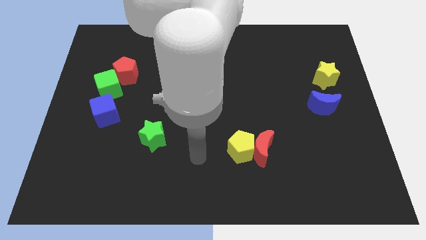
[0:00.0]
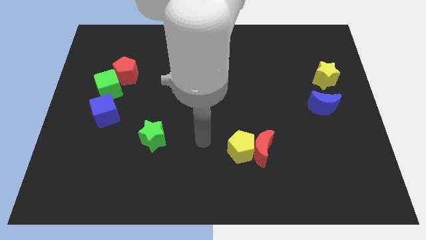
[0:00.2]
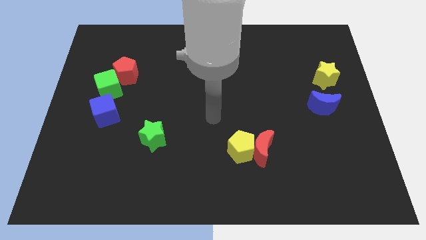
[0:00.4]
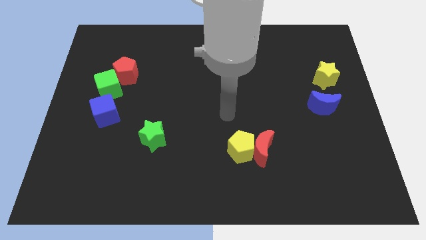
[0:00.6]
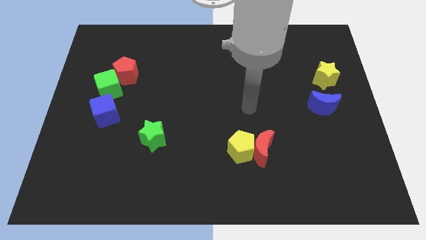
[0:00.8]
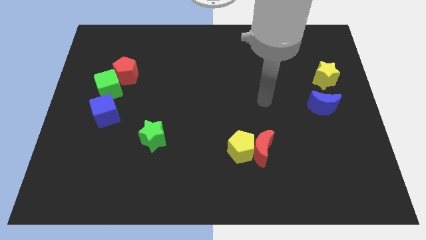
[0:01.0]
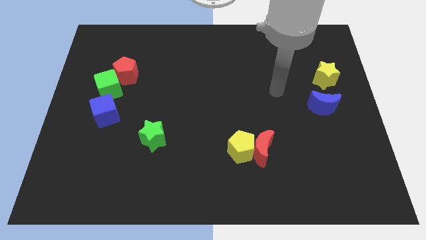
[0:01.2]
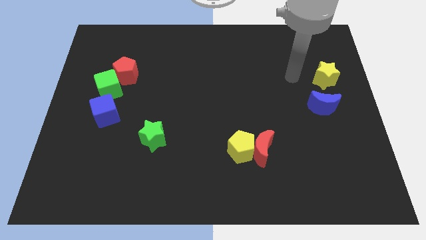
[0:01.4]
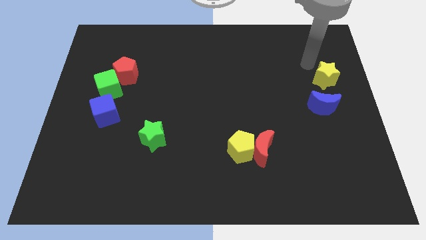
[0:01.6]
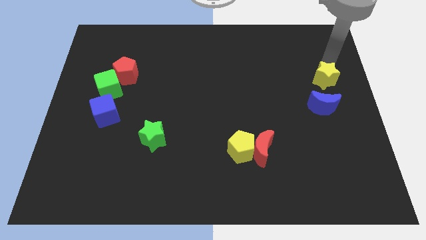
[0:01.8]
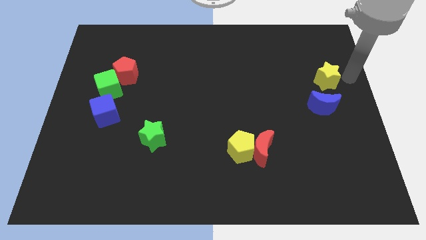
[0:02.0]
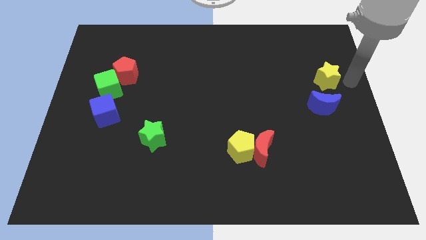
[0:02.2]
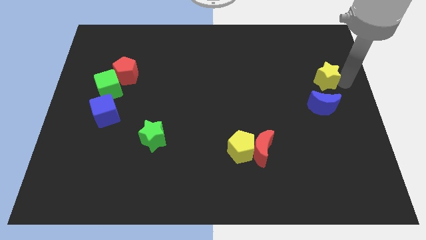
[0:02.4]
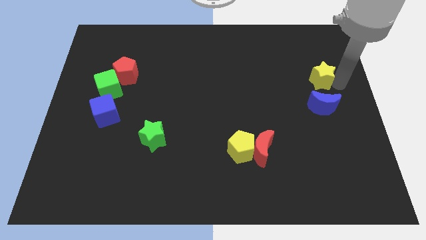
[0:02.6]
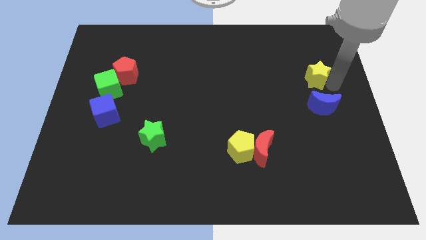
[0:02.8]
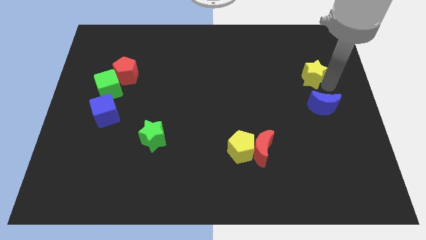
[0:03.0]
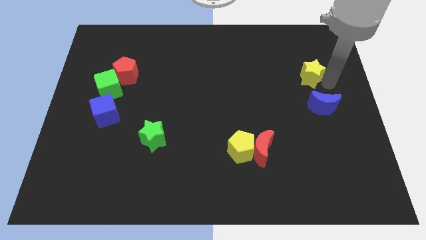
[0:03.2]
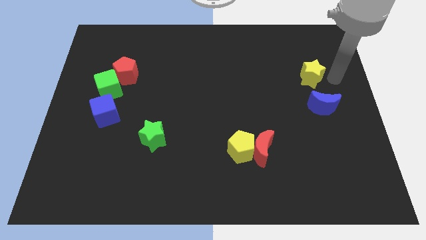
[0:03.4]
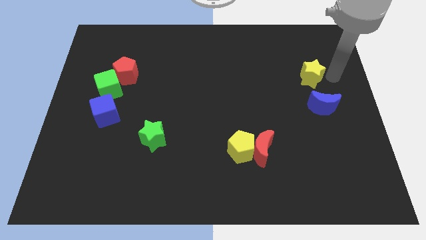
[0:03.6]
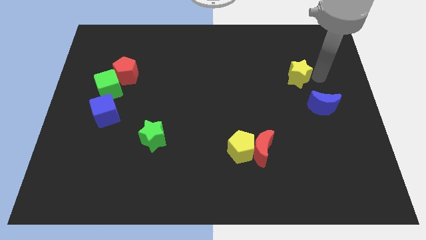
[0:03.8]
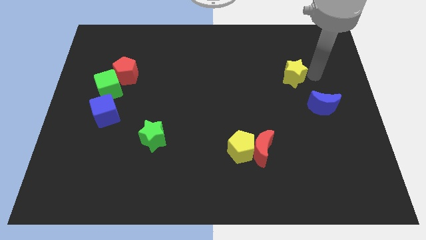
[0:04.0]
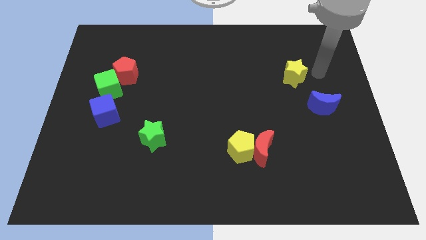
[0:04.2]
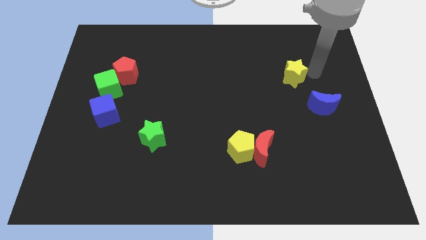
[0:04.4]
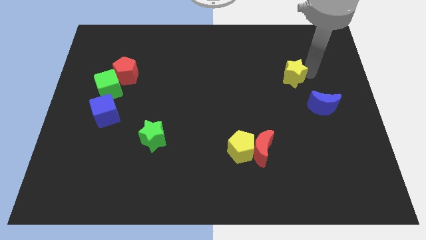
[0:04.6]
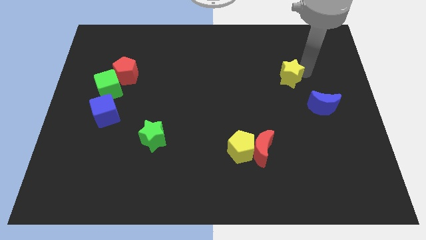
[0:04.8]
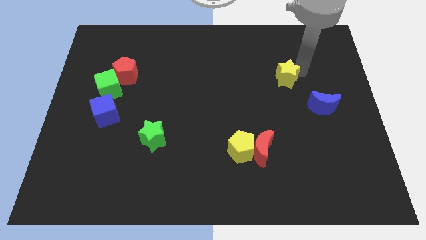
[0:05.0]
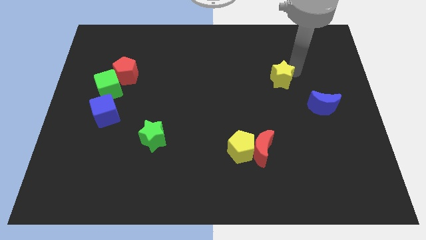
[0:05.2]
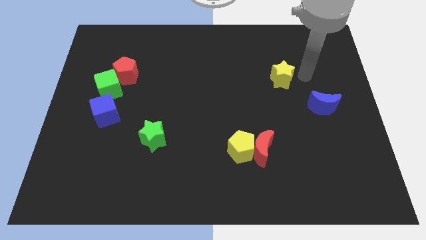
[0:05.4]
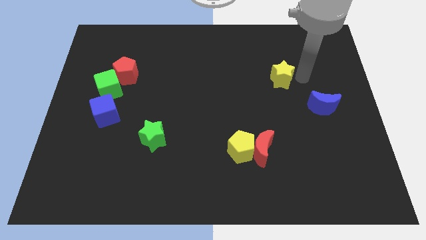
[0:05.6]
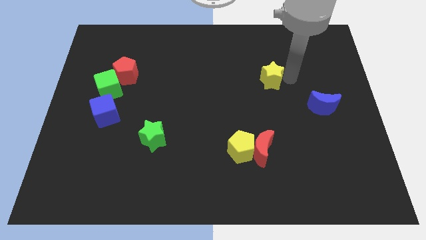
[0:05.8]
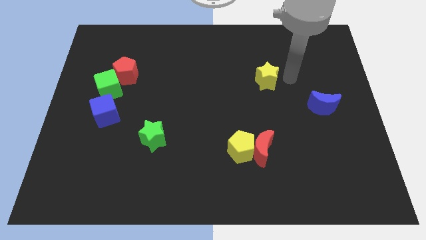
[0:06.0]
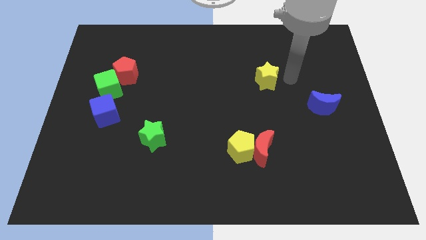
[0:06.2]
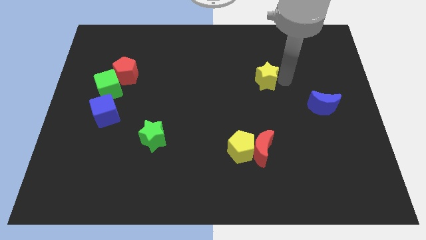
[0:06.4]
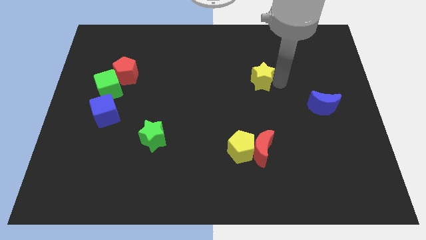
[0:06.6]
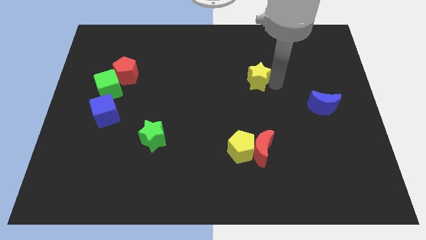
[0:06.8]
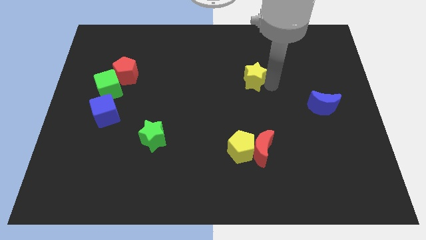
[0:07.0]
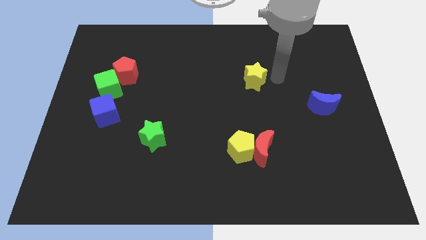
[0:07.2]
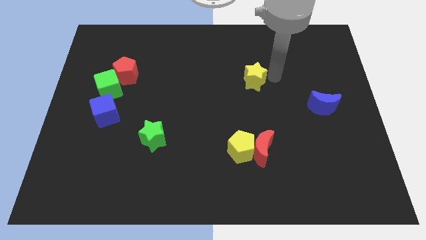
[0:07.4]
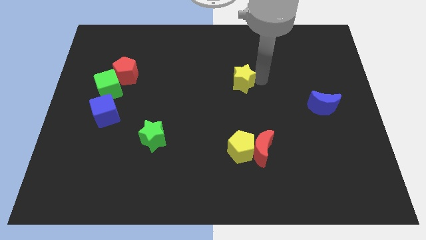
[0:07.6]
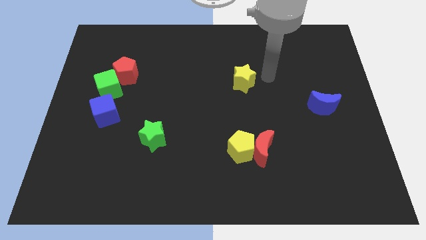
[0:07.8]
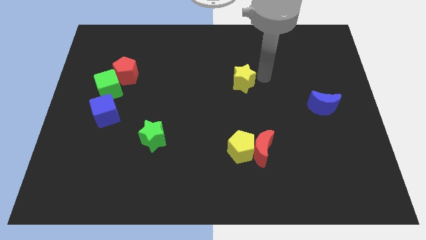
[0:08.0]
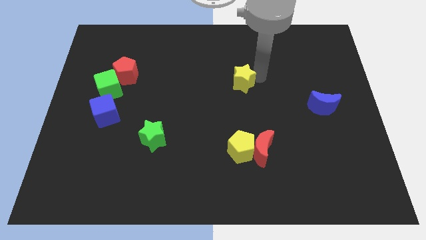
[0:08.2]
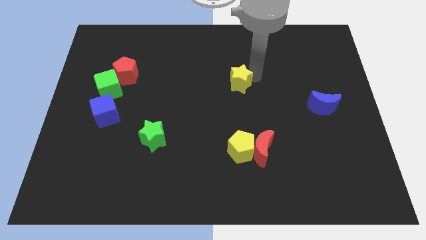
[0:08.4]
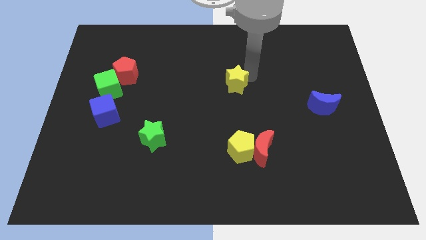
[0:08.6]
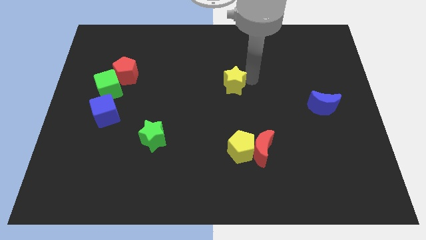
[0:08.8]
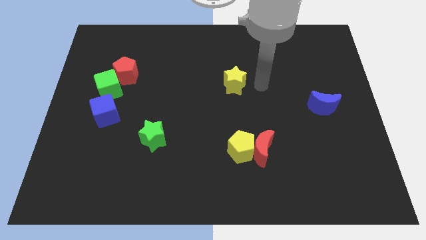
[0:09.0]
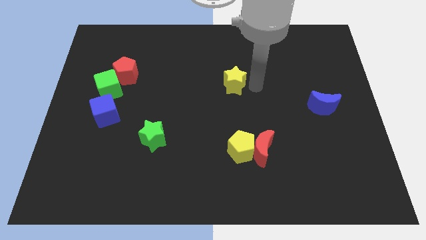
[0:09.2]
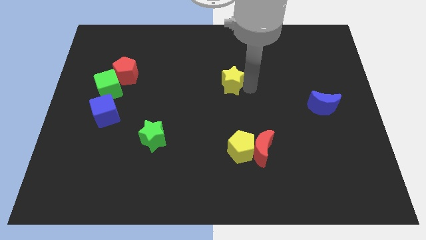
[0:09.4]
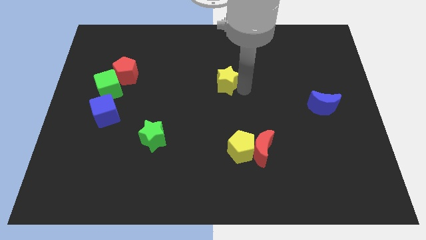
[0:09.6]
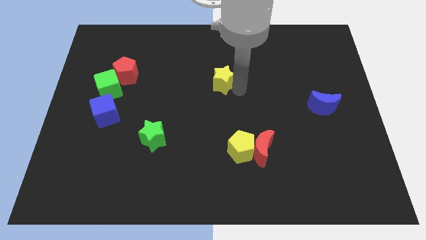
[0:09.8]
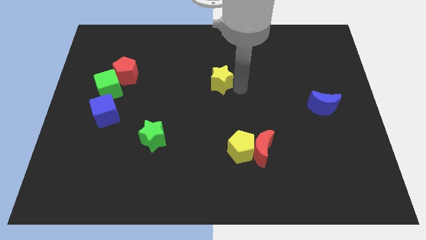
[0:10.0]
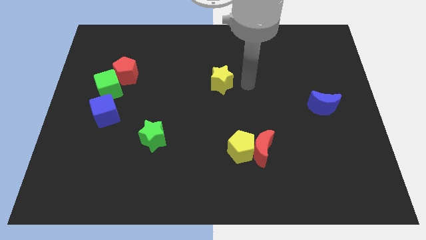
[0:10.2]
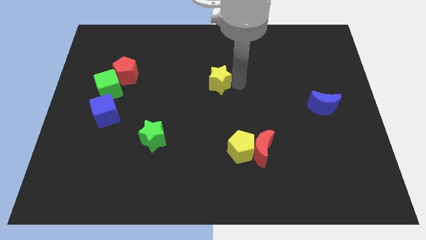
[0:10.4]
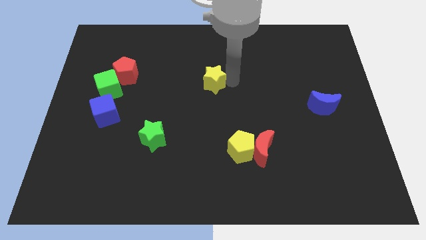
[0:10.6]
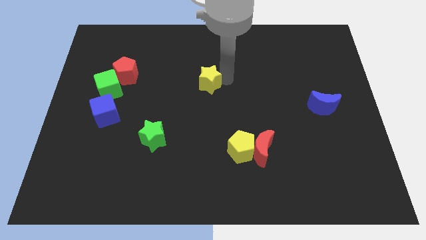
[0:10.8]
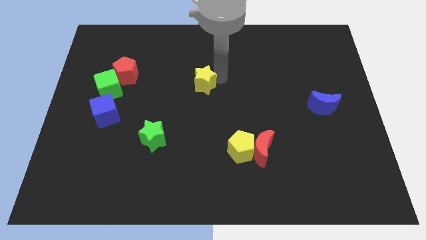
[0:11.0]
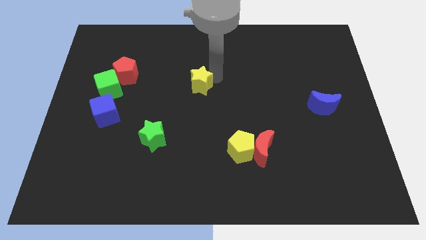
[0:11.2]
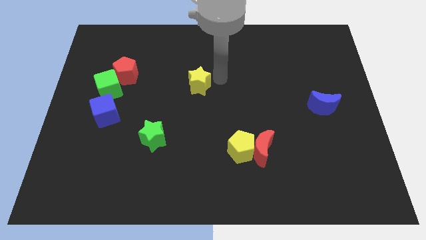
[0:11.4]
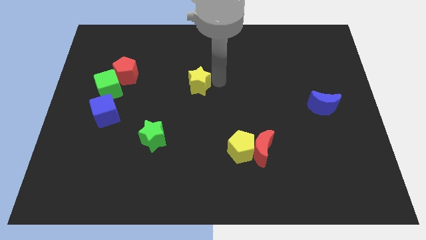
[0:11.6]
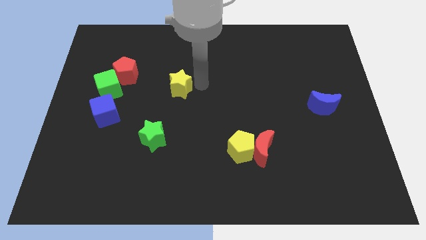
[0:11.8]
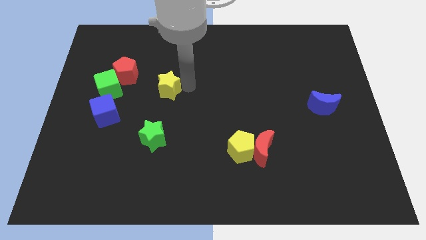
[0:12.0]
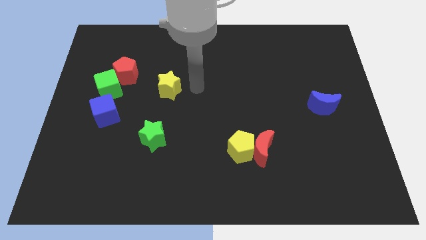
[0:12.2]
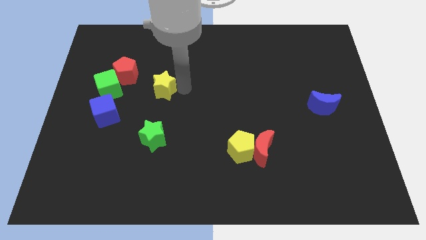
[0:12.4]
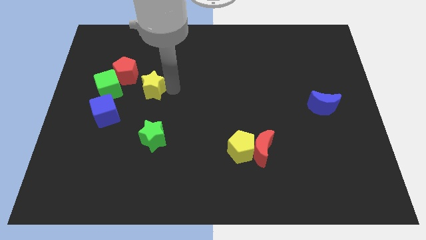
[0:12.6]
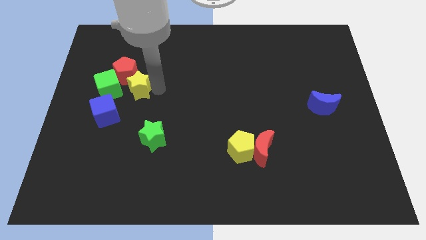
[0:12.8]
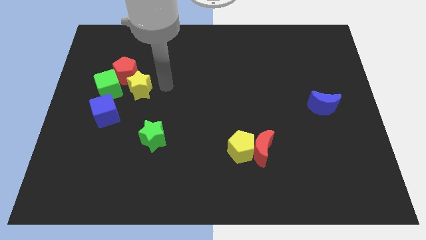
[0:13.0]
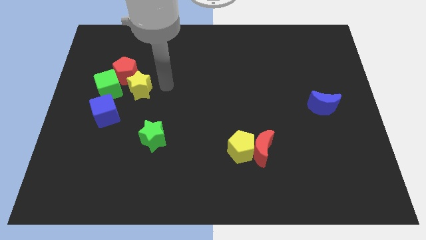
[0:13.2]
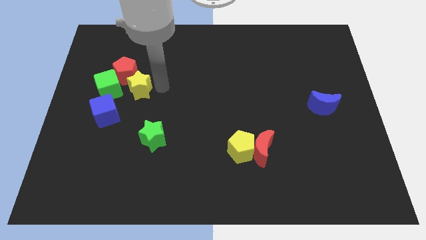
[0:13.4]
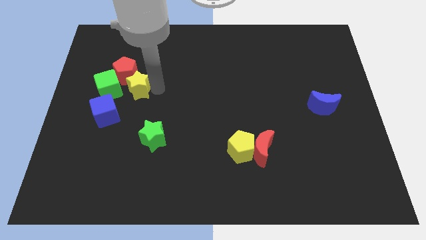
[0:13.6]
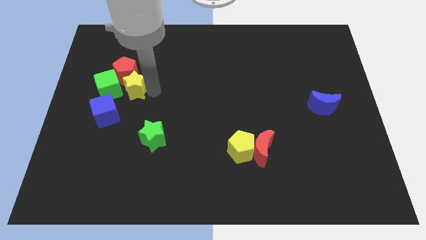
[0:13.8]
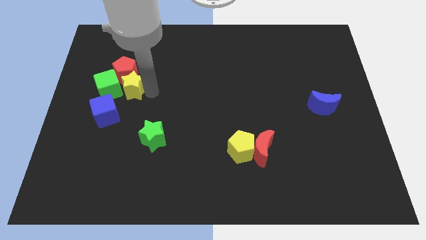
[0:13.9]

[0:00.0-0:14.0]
push the yellow star to the green cube
